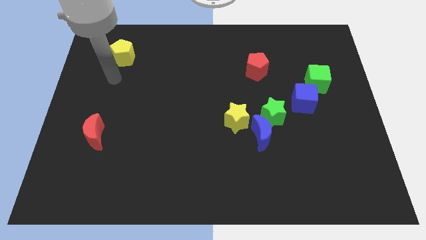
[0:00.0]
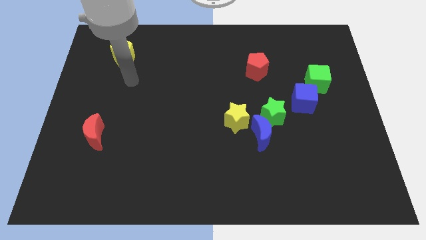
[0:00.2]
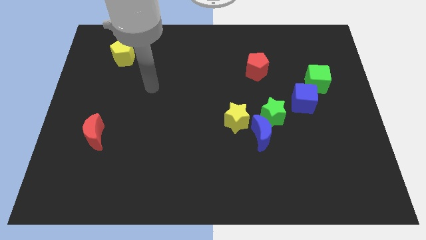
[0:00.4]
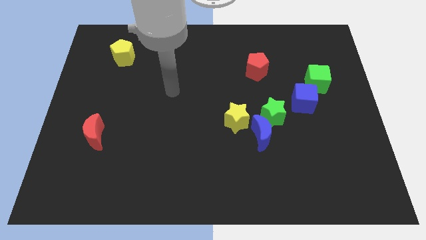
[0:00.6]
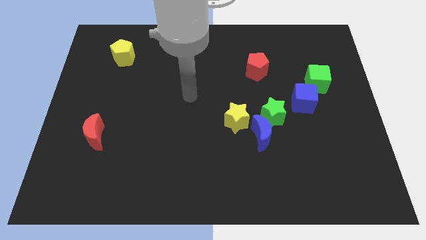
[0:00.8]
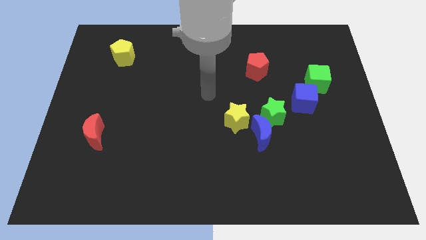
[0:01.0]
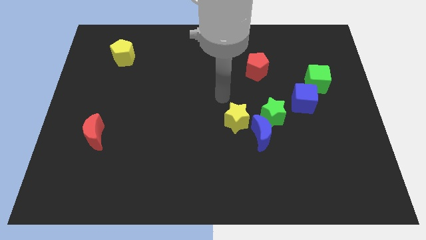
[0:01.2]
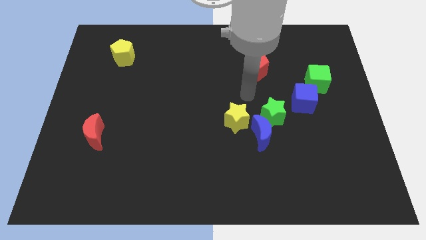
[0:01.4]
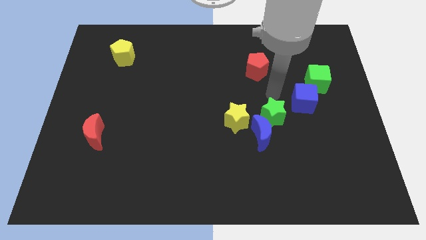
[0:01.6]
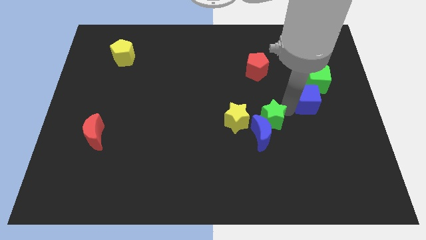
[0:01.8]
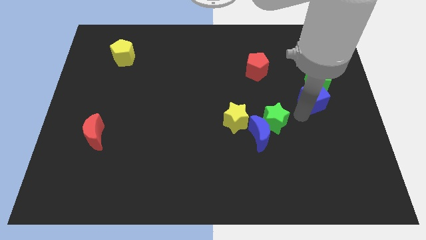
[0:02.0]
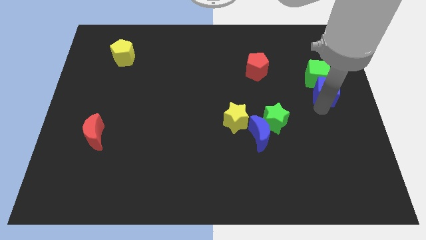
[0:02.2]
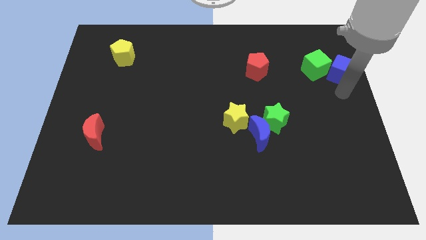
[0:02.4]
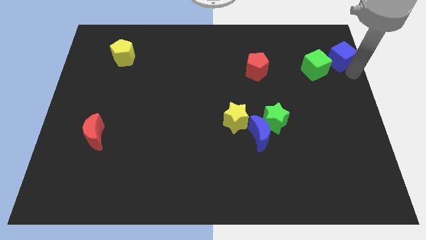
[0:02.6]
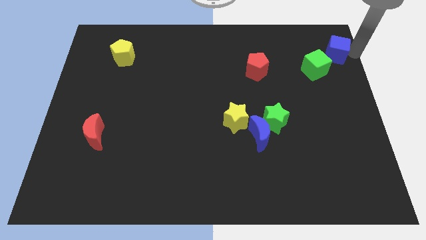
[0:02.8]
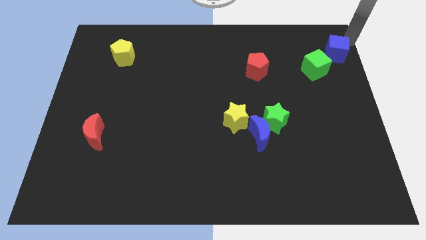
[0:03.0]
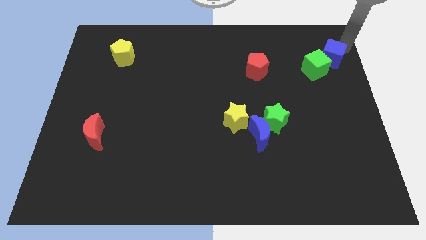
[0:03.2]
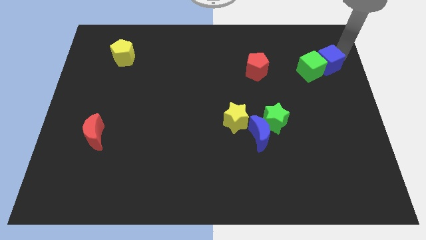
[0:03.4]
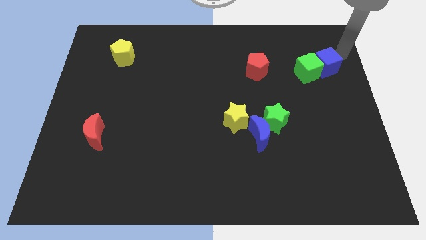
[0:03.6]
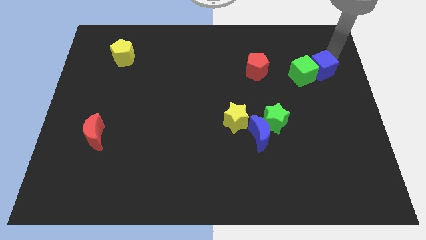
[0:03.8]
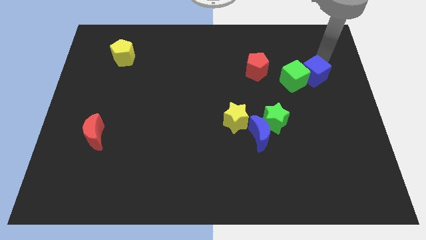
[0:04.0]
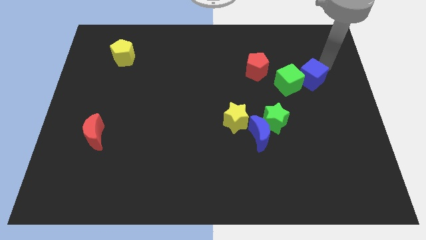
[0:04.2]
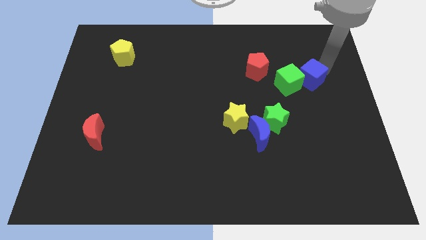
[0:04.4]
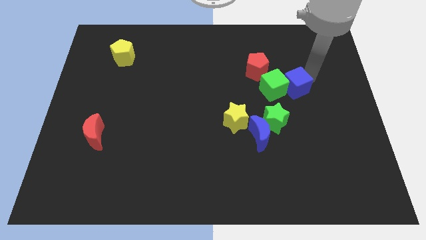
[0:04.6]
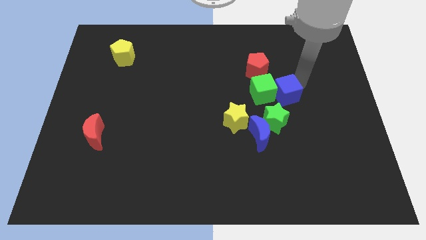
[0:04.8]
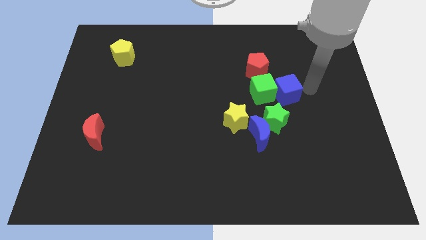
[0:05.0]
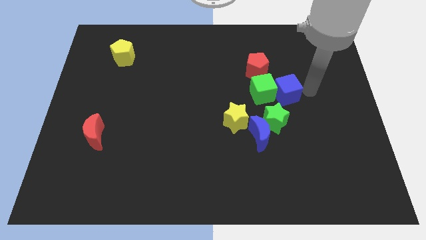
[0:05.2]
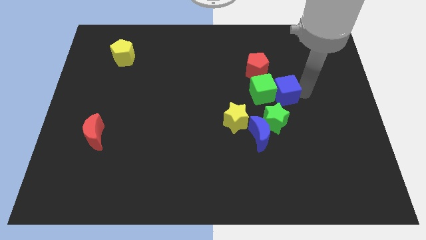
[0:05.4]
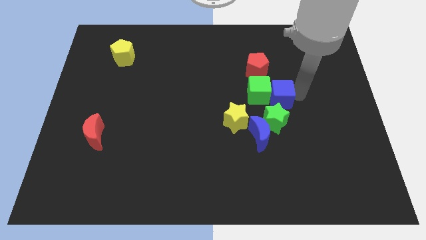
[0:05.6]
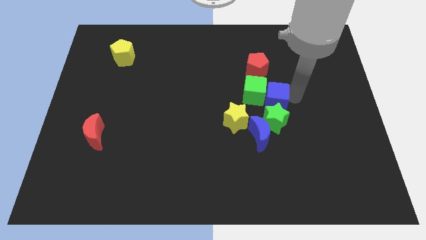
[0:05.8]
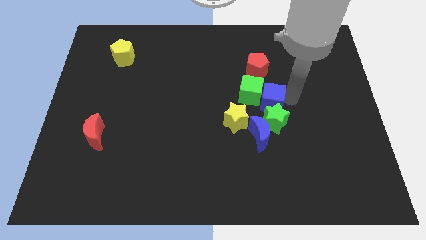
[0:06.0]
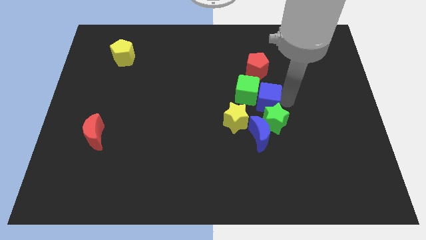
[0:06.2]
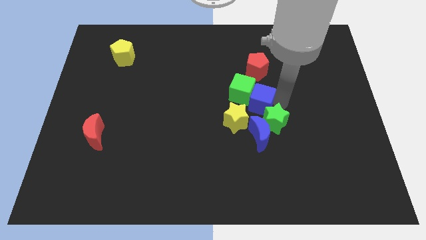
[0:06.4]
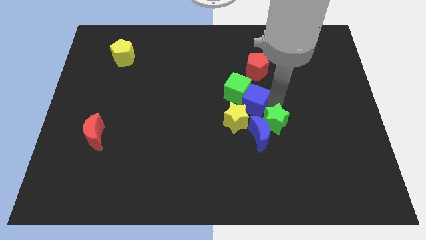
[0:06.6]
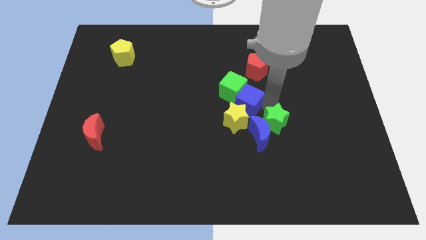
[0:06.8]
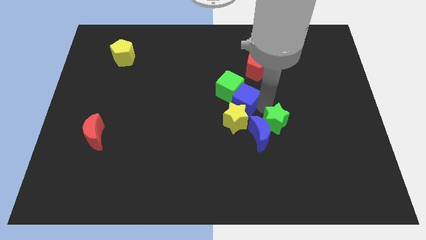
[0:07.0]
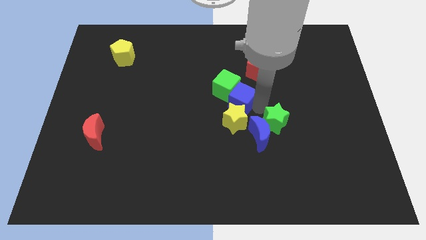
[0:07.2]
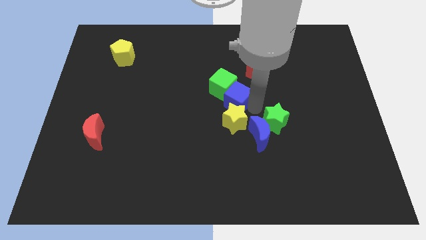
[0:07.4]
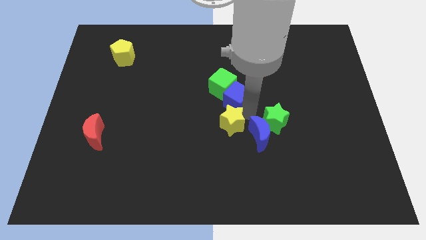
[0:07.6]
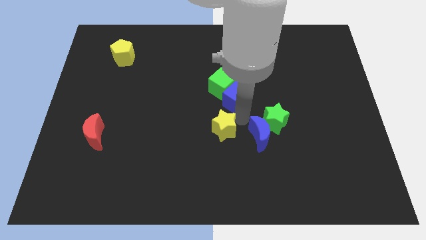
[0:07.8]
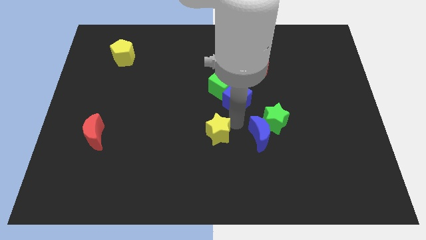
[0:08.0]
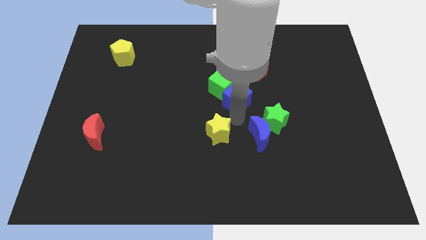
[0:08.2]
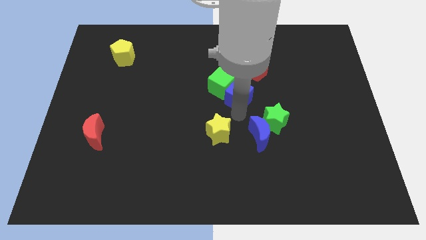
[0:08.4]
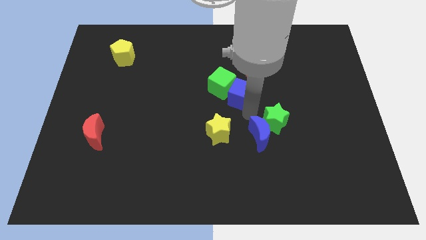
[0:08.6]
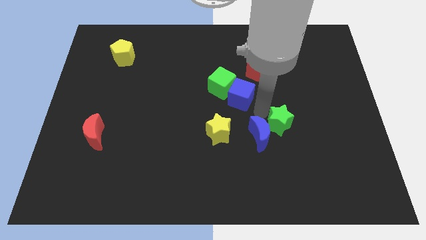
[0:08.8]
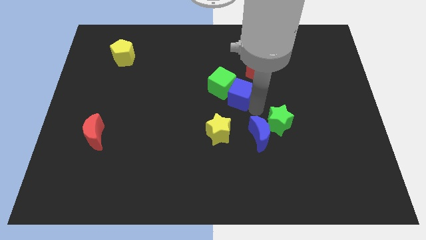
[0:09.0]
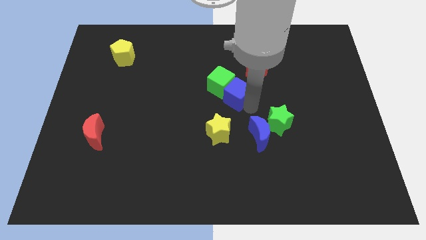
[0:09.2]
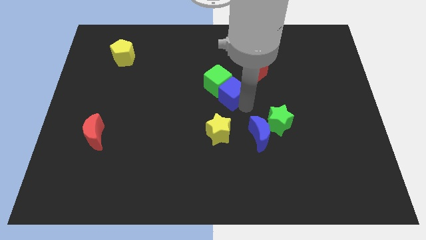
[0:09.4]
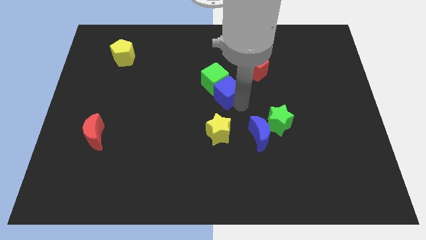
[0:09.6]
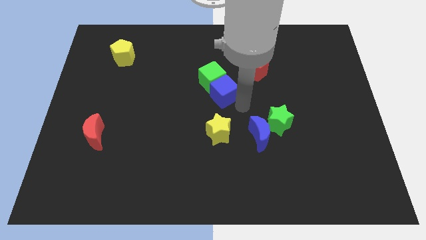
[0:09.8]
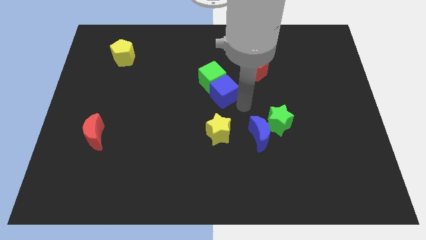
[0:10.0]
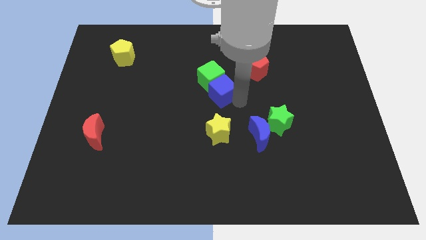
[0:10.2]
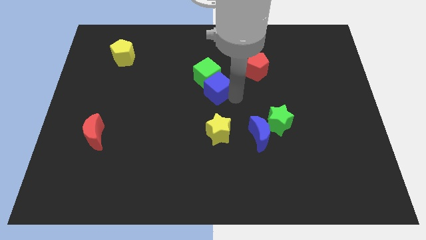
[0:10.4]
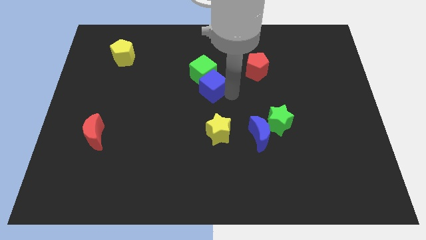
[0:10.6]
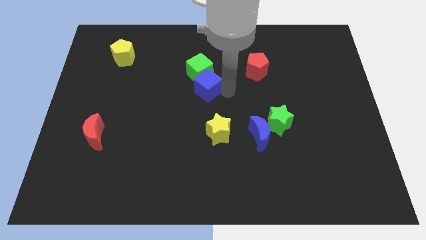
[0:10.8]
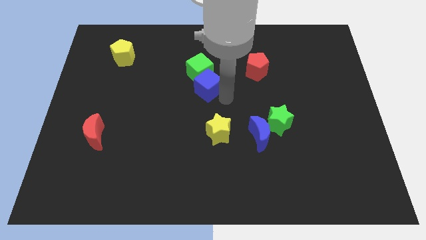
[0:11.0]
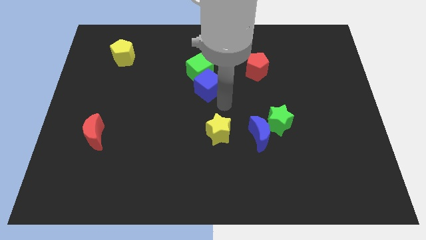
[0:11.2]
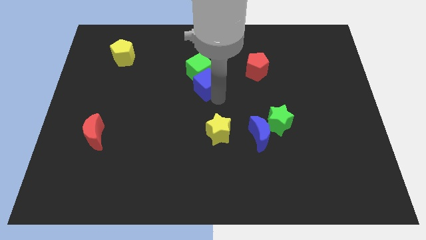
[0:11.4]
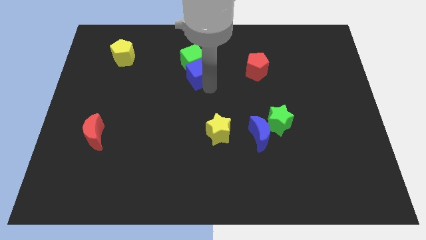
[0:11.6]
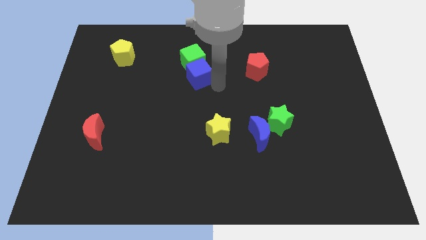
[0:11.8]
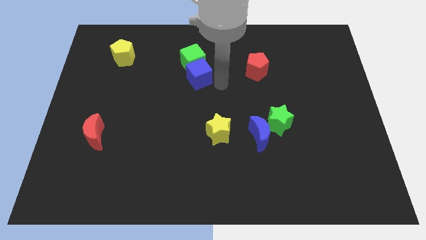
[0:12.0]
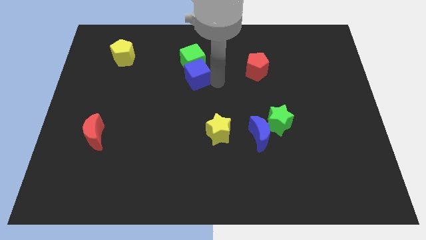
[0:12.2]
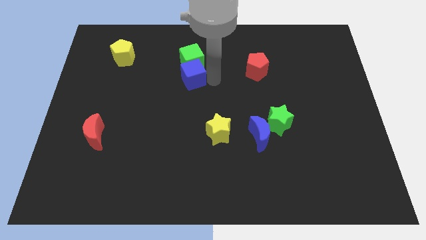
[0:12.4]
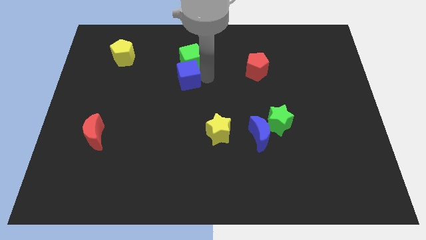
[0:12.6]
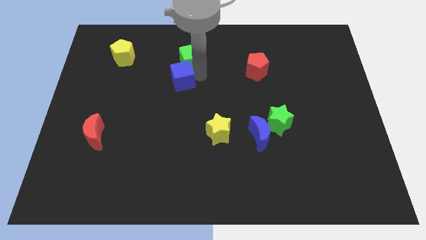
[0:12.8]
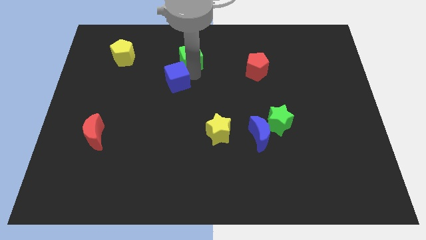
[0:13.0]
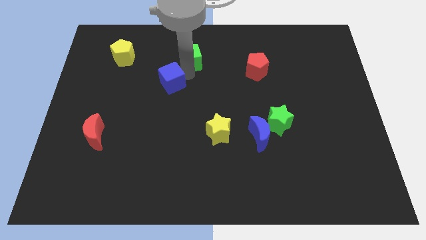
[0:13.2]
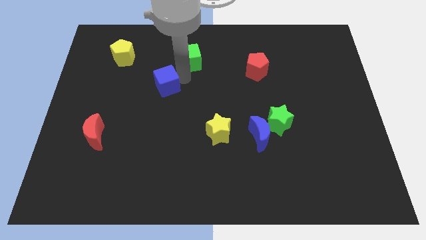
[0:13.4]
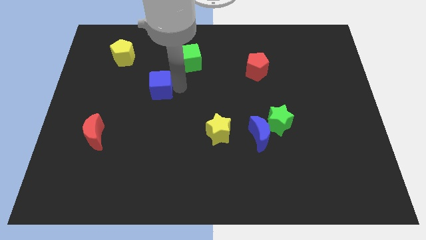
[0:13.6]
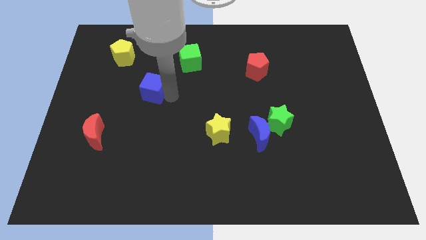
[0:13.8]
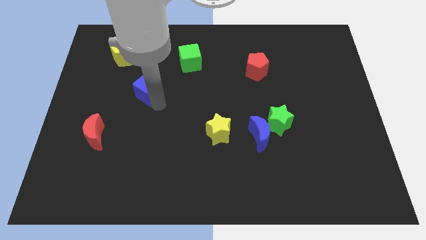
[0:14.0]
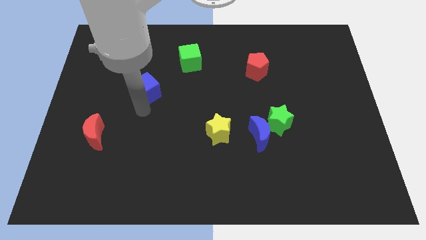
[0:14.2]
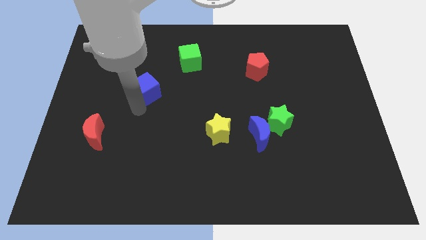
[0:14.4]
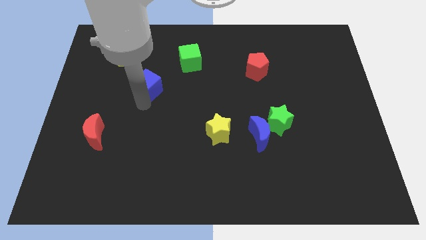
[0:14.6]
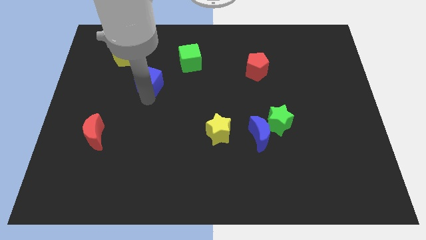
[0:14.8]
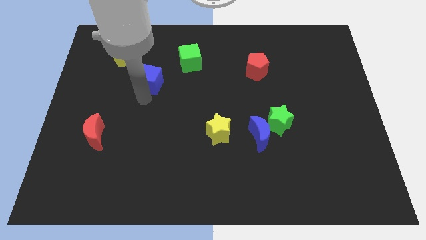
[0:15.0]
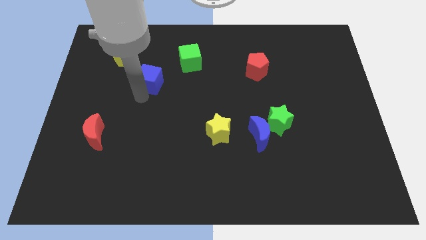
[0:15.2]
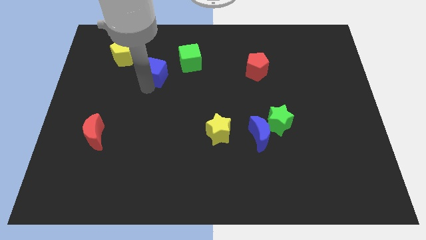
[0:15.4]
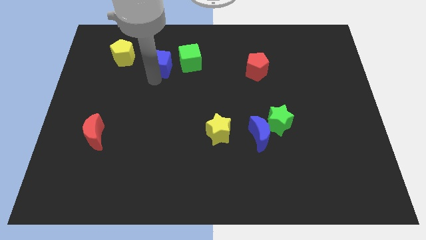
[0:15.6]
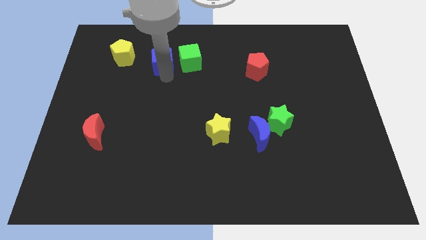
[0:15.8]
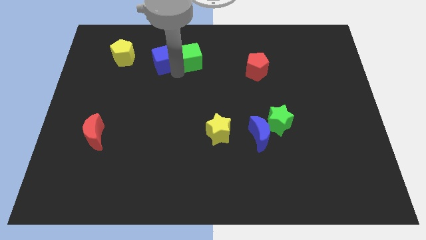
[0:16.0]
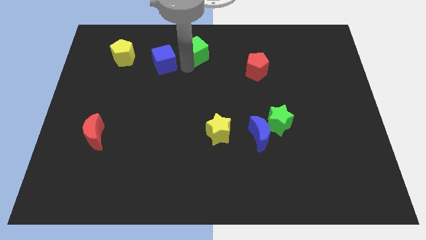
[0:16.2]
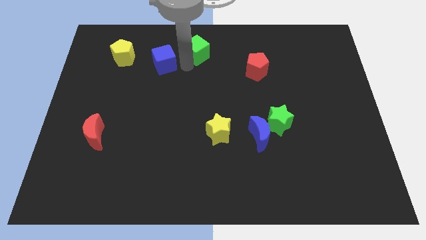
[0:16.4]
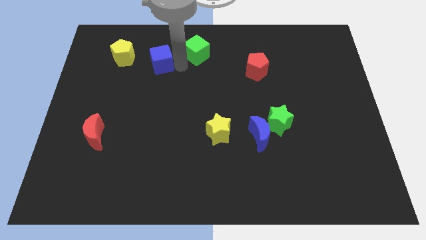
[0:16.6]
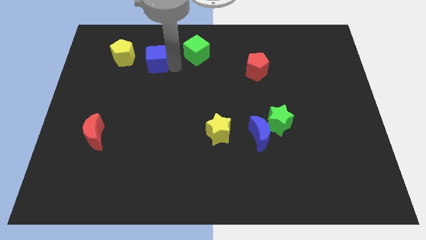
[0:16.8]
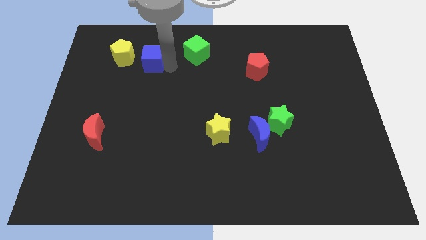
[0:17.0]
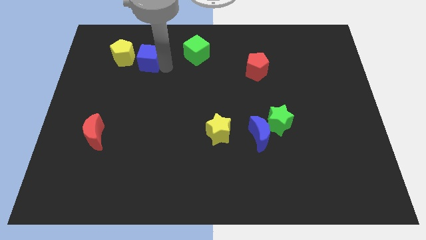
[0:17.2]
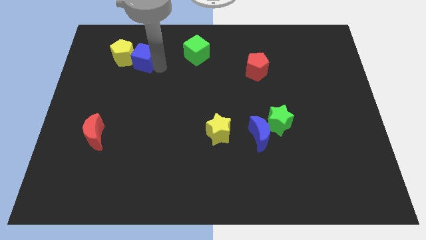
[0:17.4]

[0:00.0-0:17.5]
push the blue cube close to the yellow pentagon
